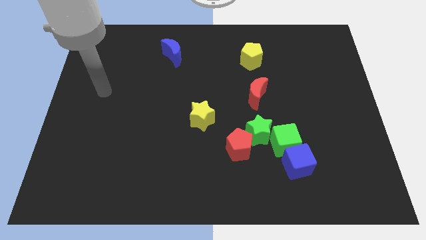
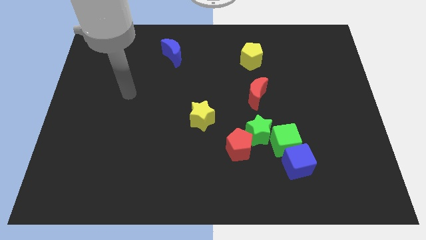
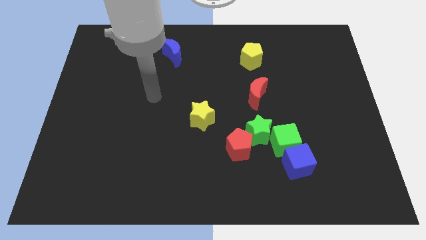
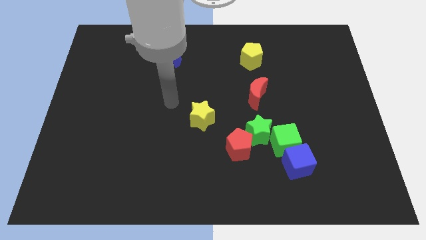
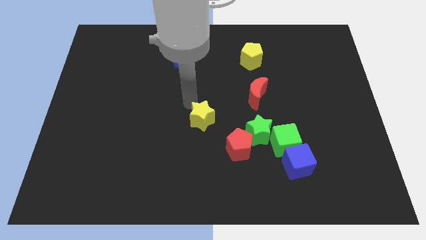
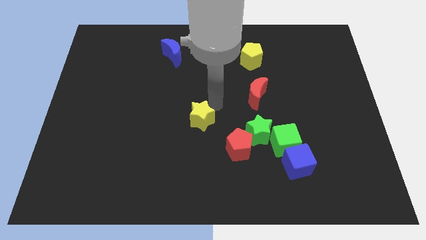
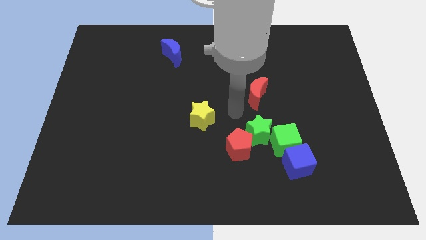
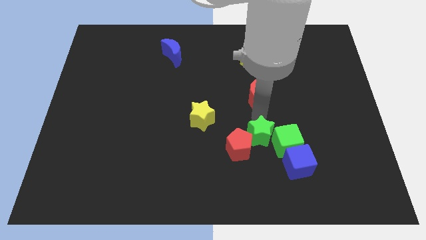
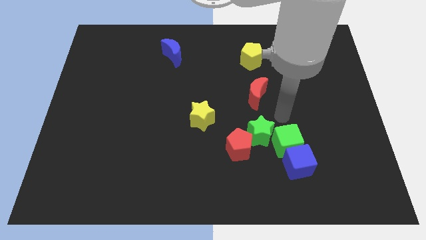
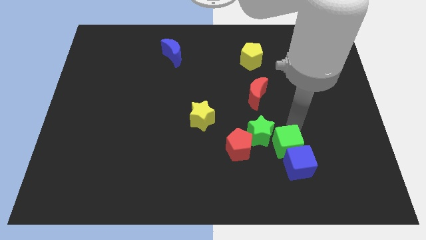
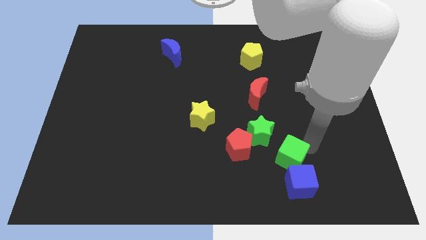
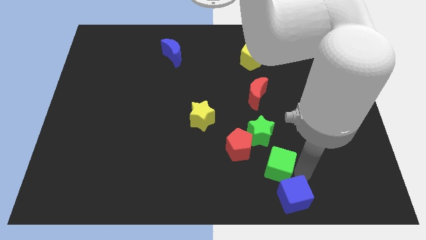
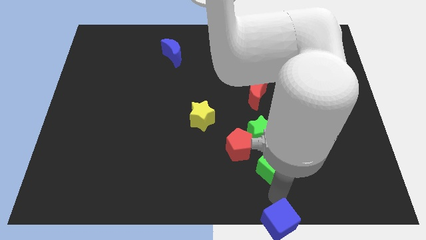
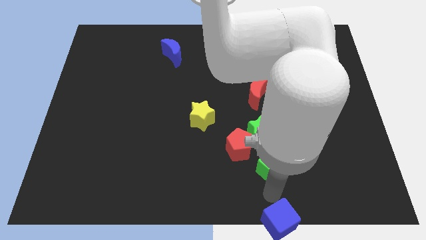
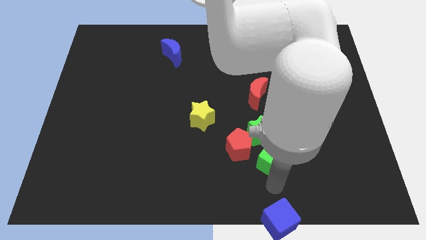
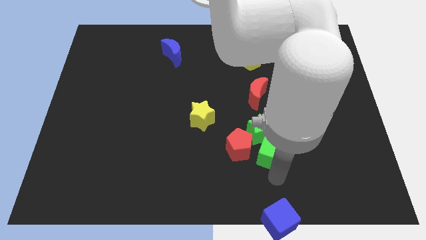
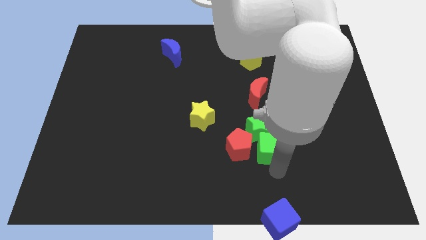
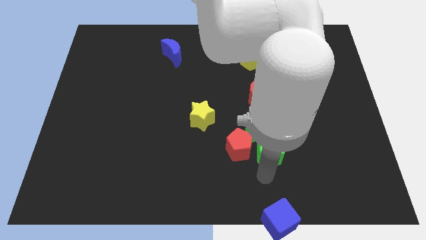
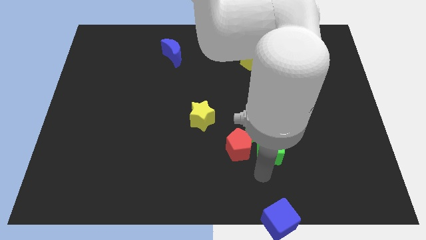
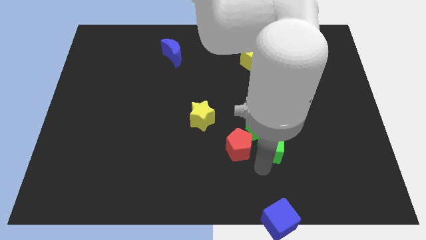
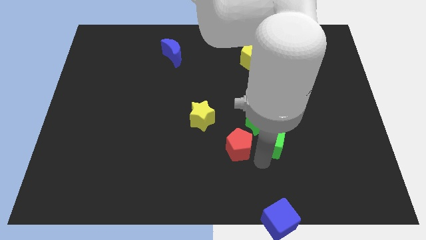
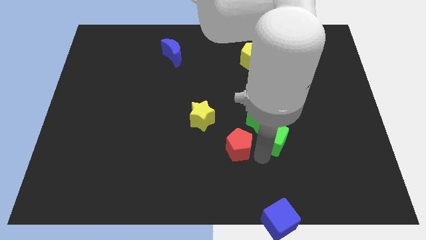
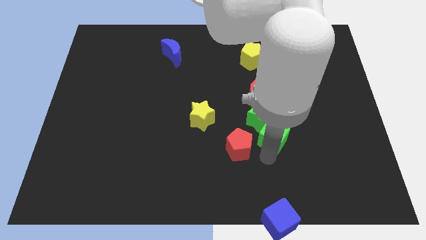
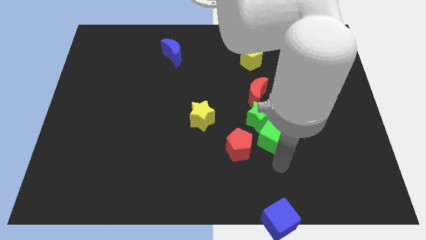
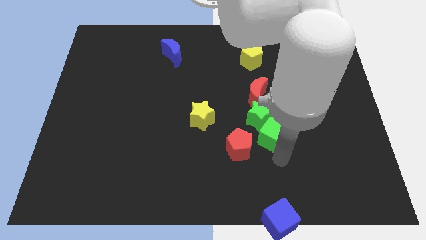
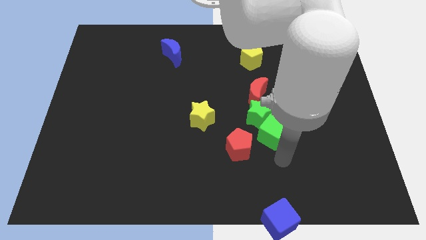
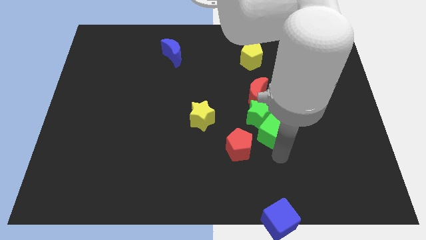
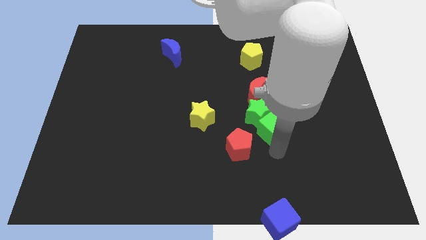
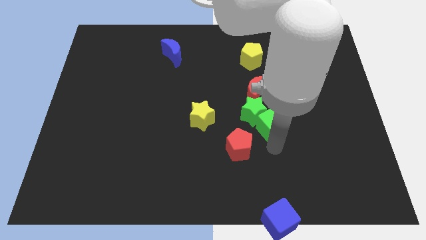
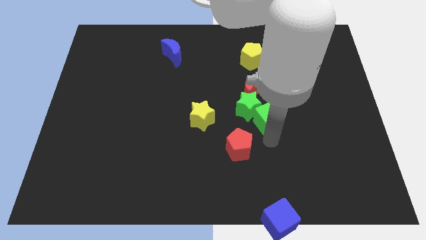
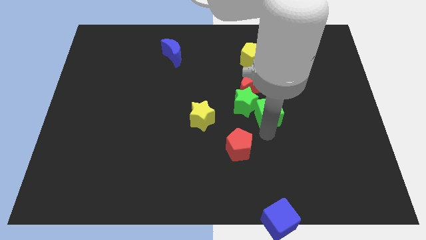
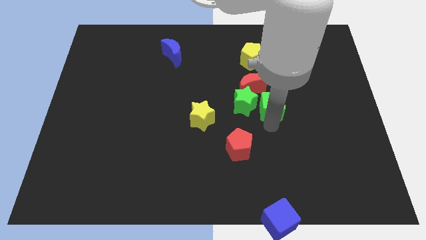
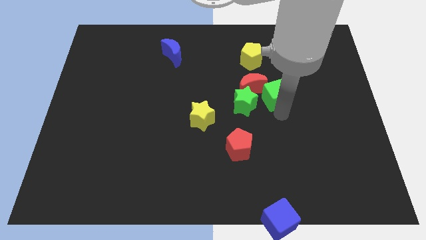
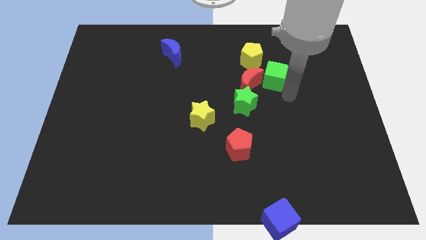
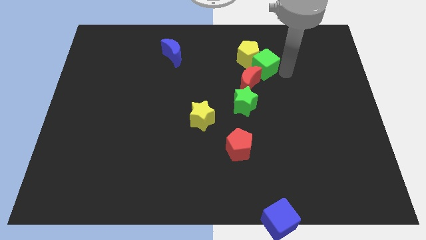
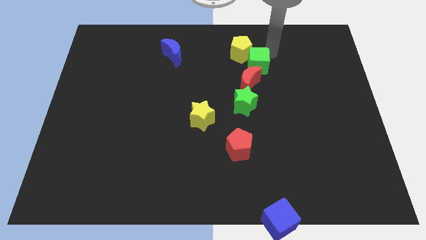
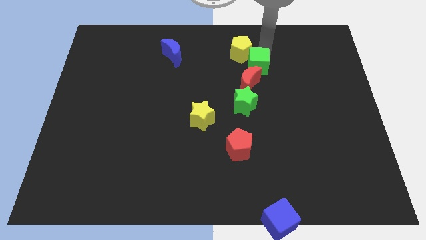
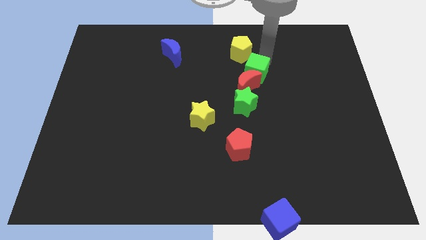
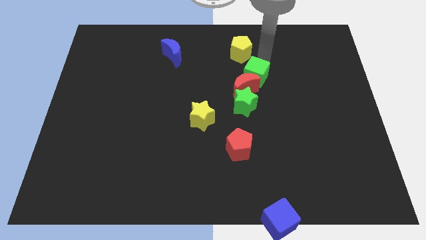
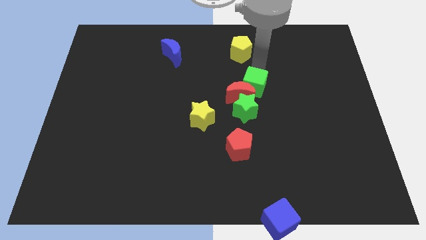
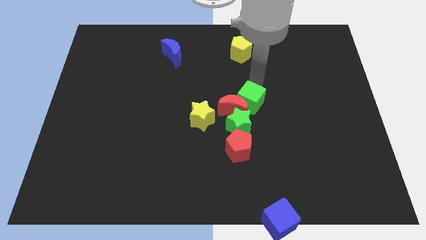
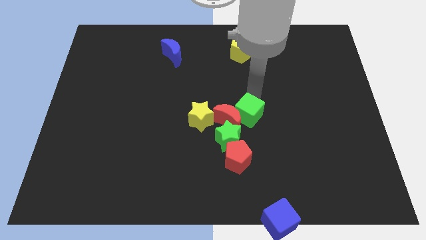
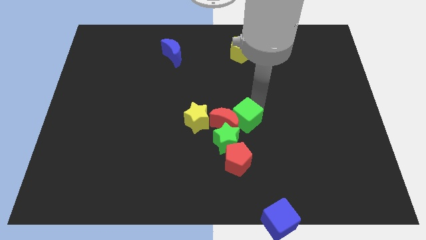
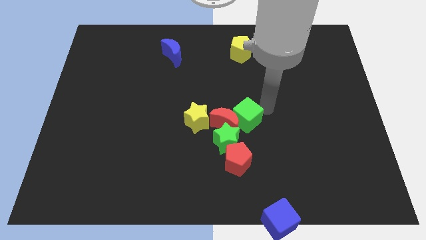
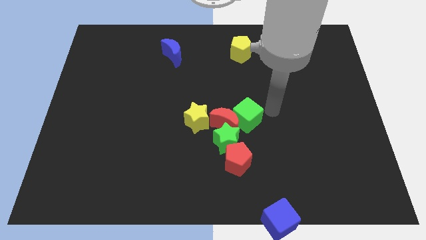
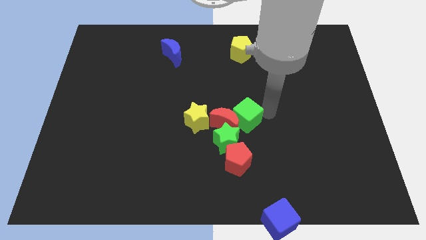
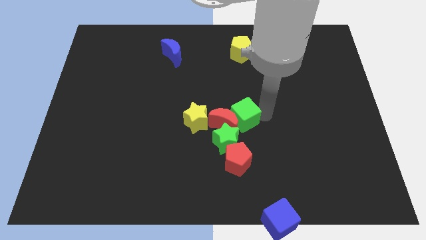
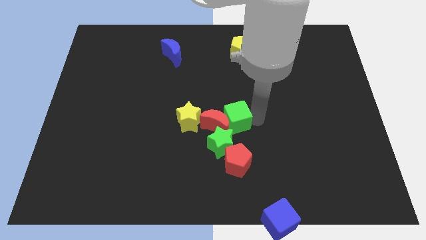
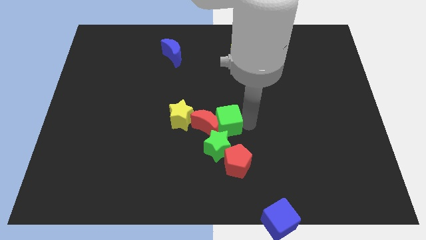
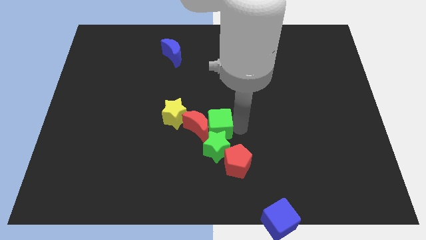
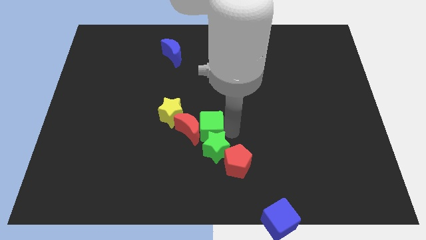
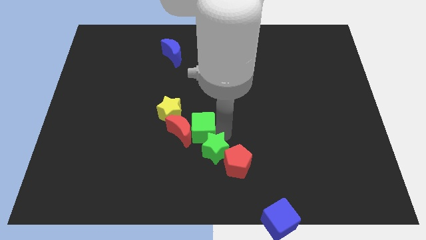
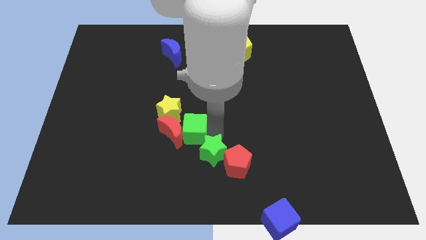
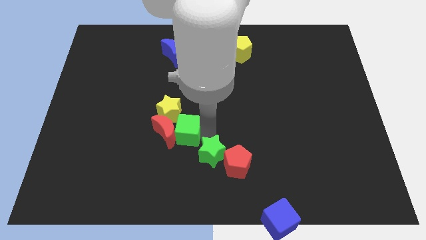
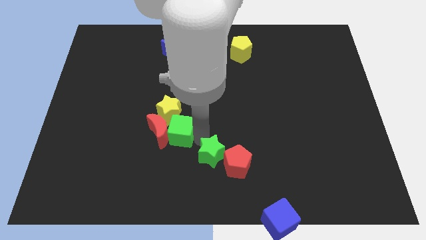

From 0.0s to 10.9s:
put the green cube close to the yellow star

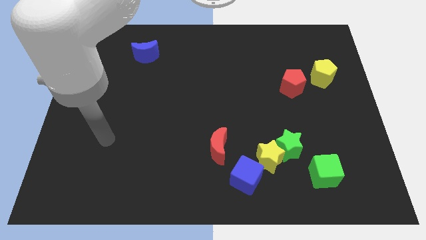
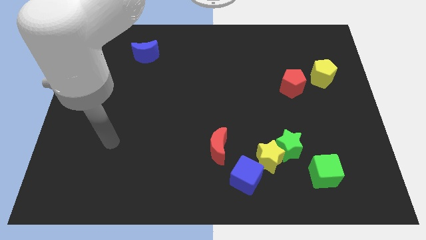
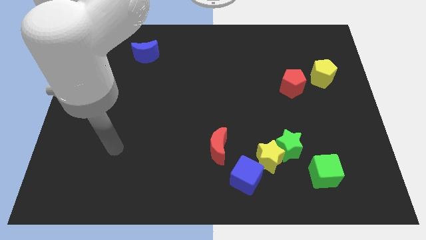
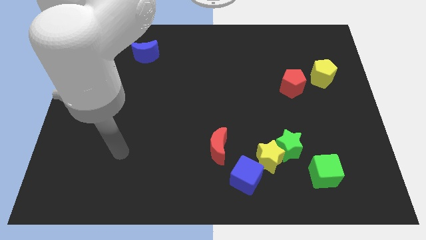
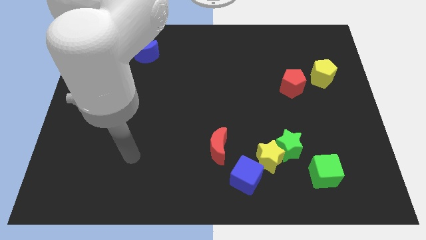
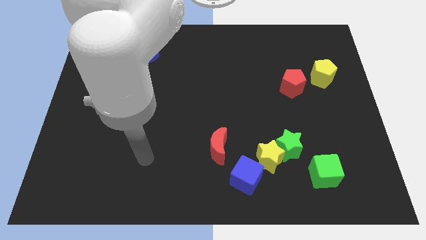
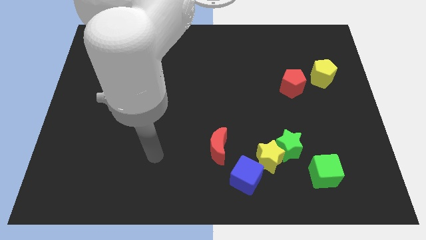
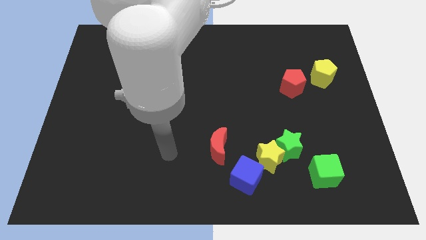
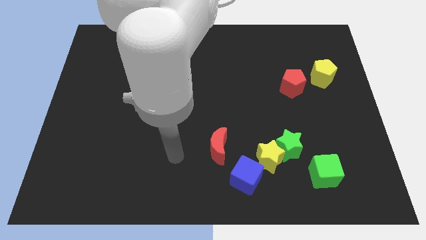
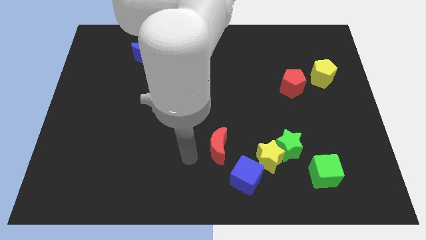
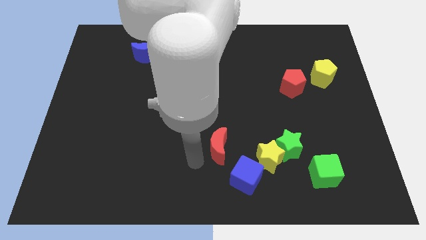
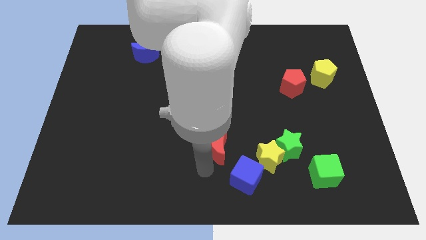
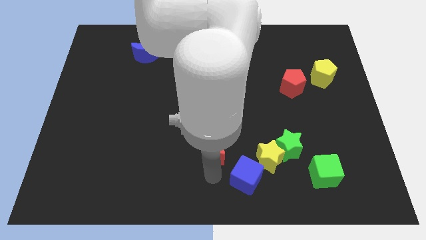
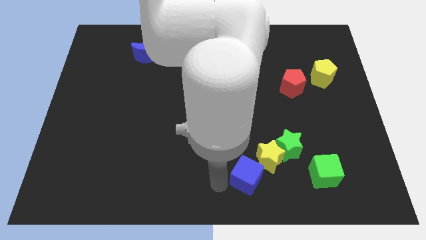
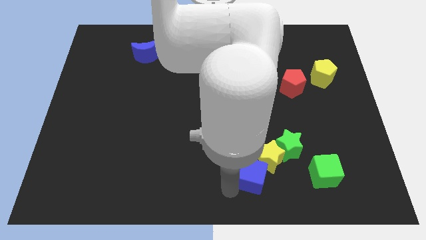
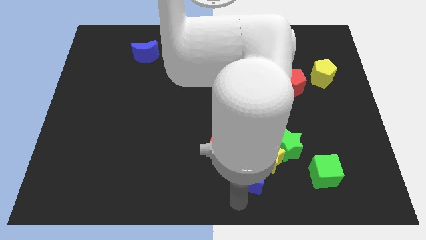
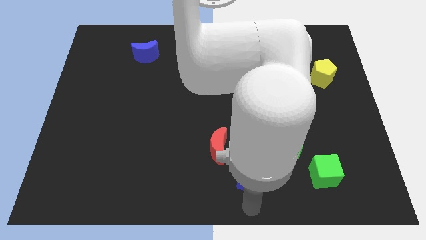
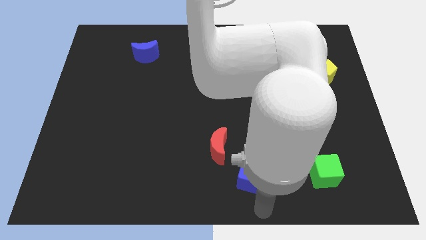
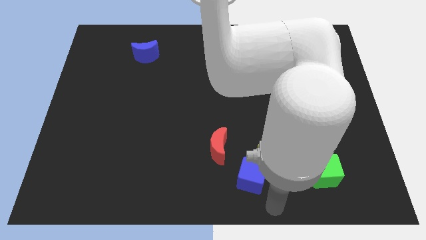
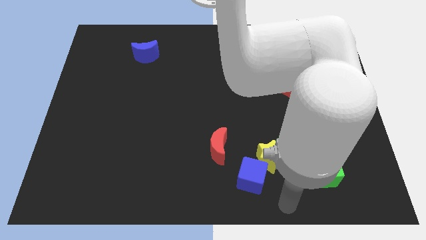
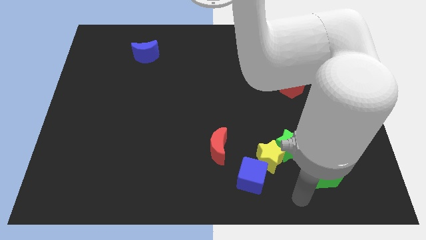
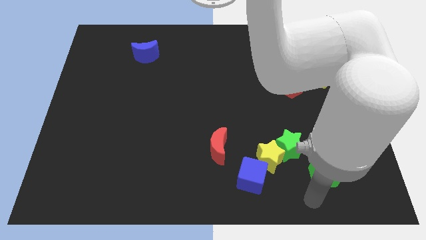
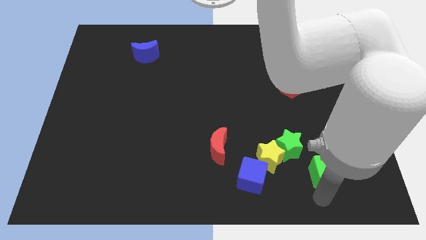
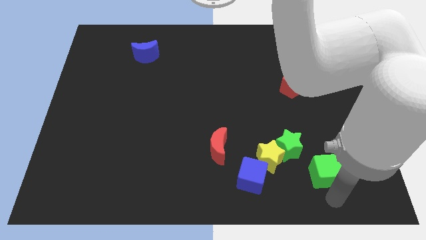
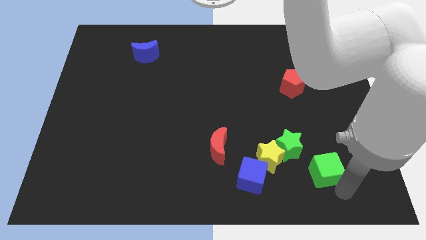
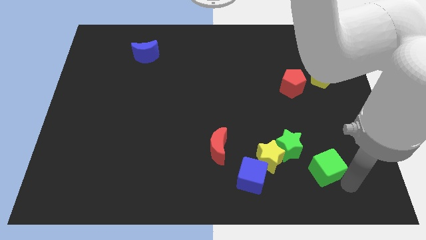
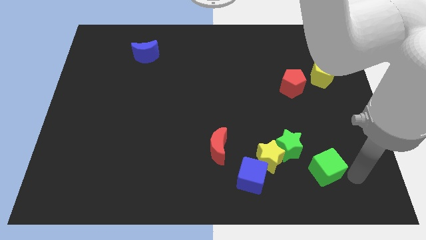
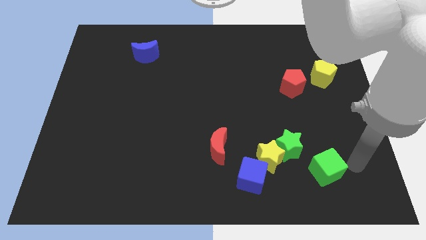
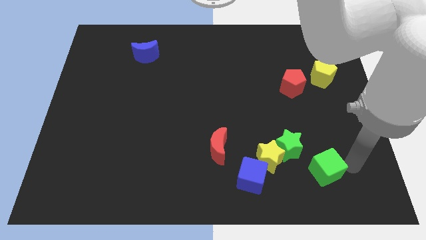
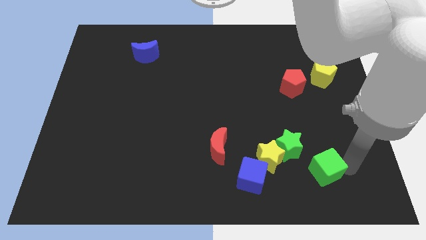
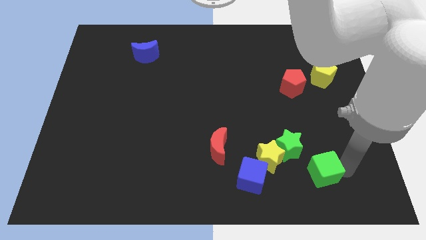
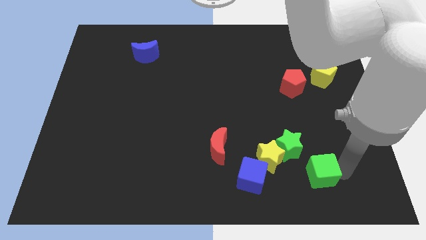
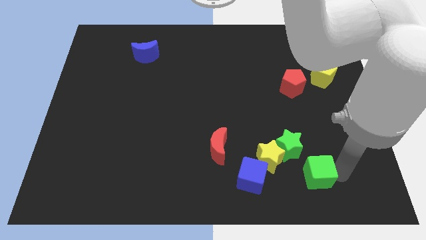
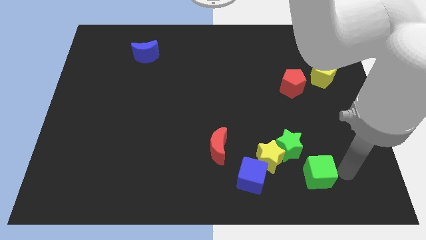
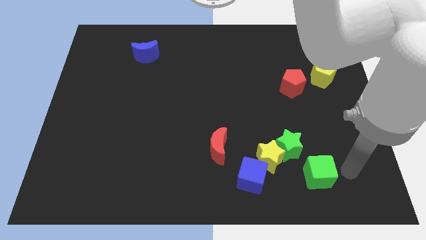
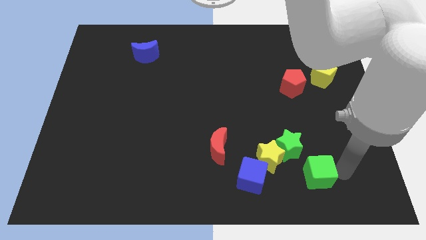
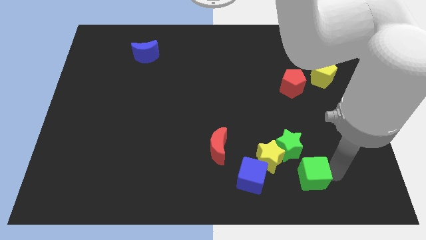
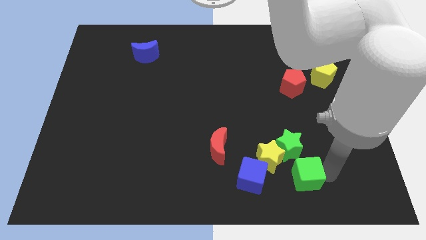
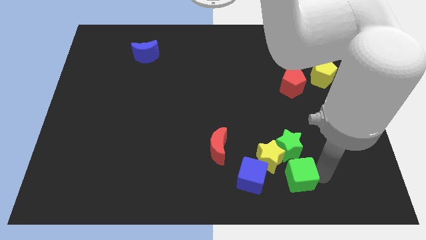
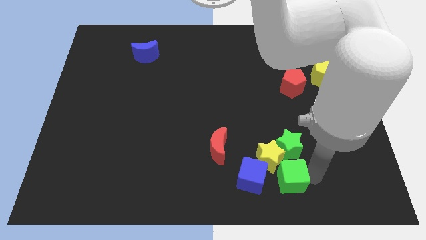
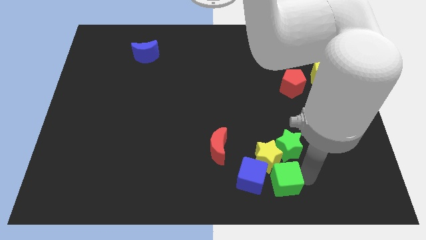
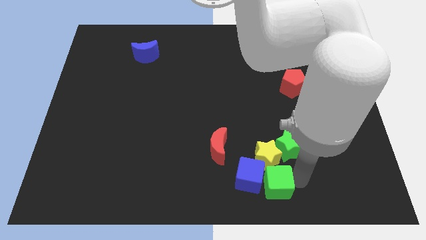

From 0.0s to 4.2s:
slide the green cube close to the blue cube
